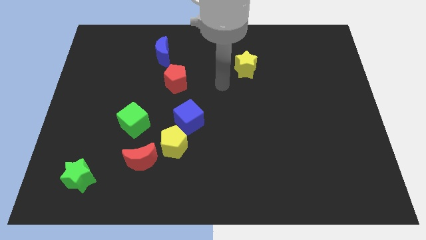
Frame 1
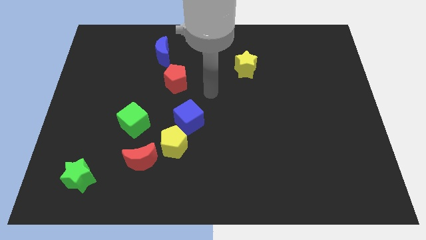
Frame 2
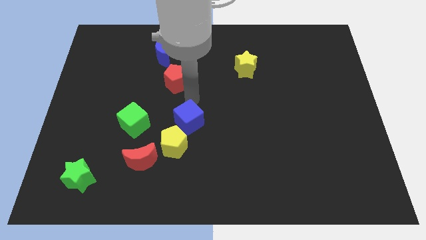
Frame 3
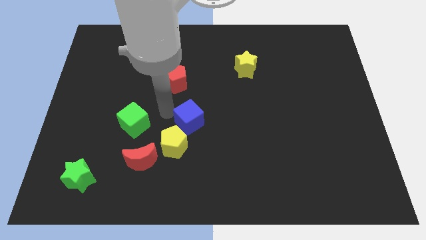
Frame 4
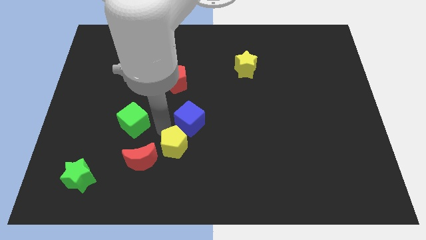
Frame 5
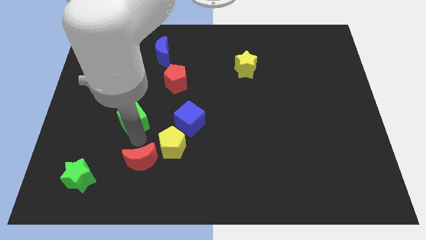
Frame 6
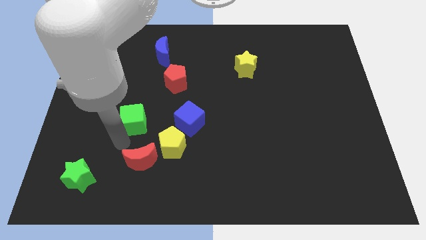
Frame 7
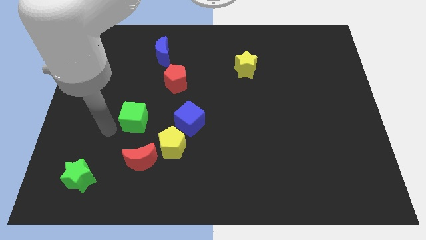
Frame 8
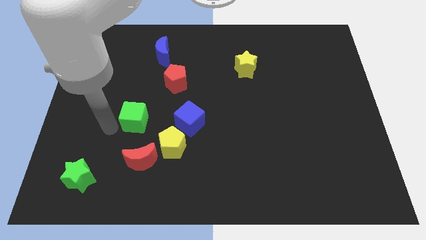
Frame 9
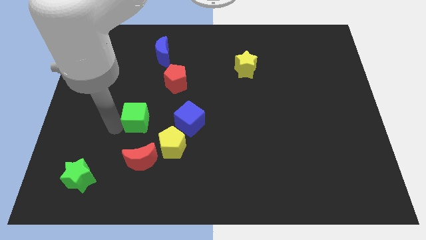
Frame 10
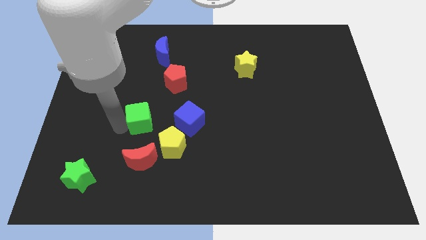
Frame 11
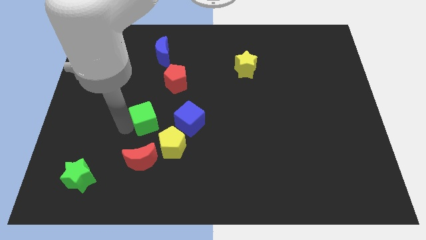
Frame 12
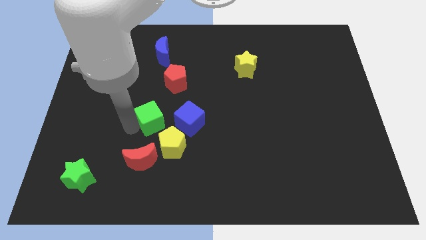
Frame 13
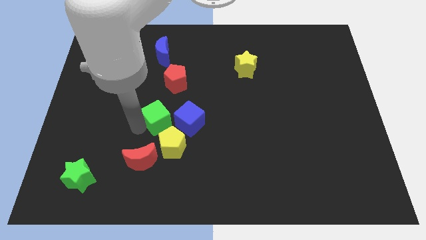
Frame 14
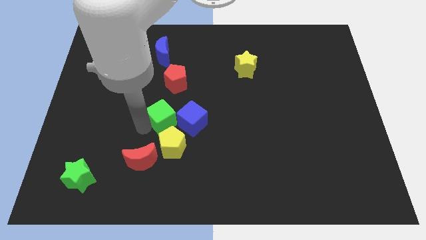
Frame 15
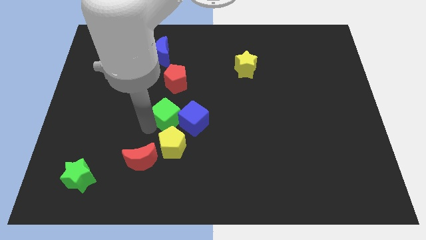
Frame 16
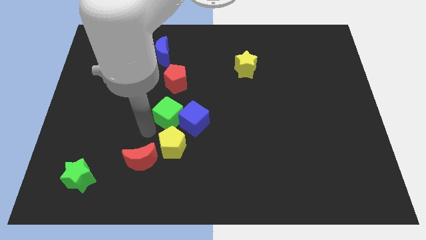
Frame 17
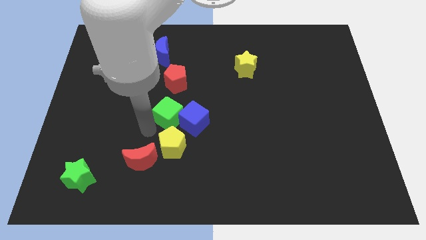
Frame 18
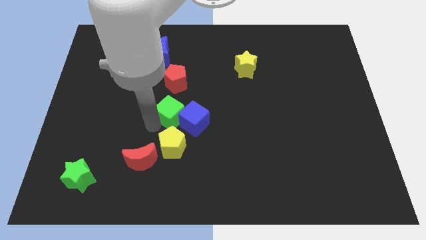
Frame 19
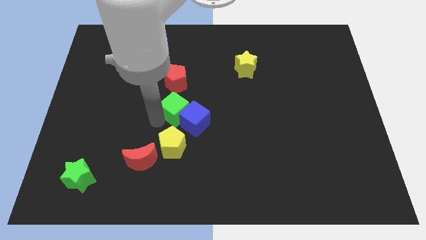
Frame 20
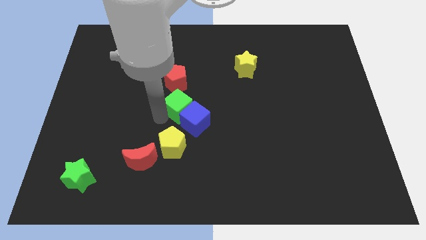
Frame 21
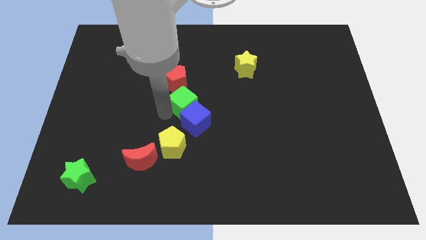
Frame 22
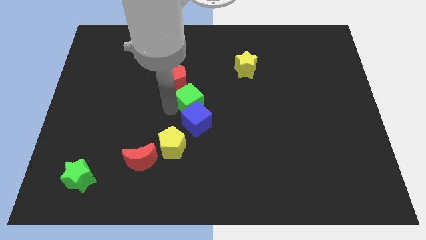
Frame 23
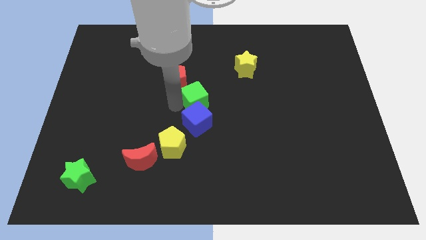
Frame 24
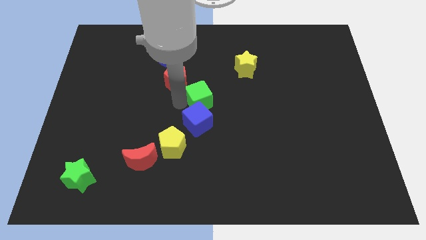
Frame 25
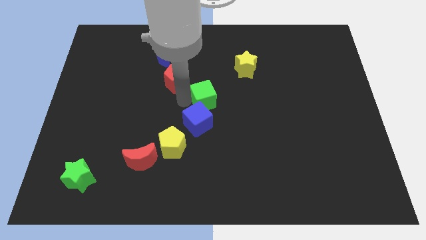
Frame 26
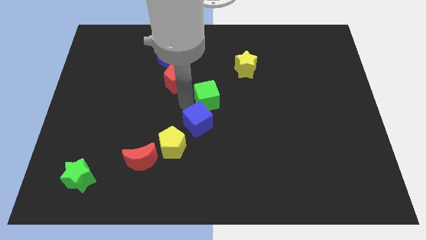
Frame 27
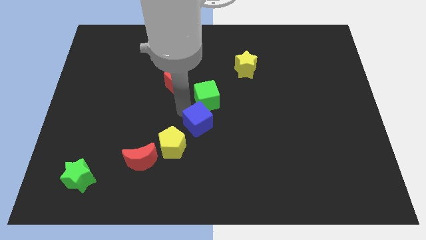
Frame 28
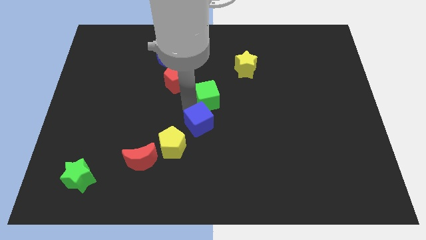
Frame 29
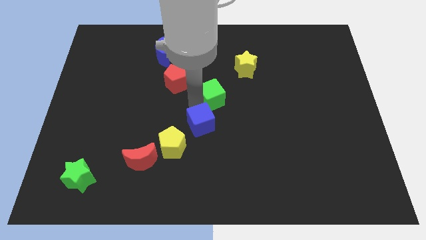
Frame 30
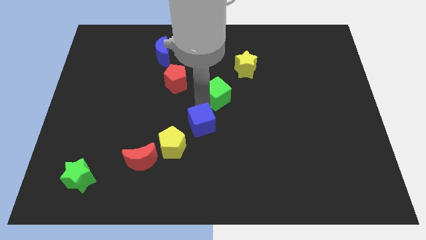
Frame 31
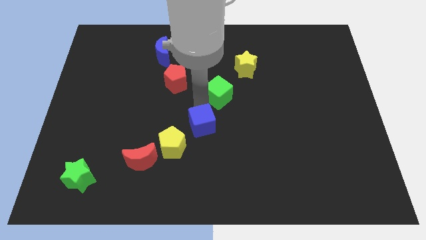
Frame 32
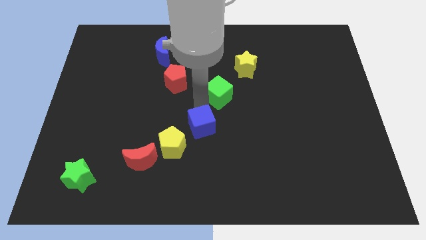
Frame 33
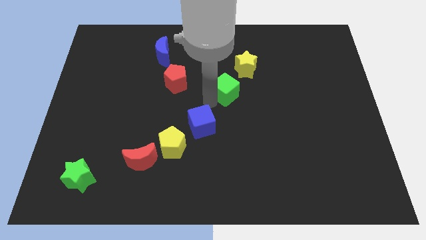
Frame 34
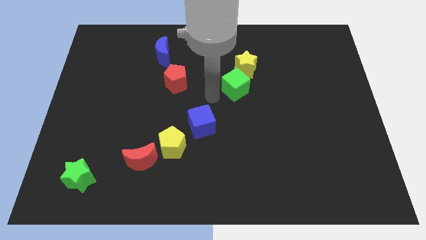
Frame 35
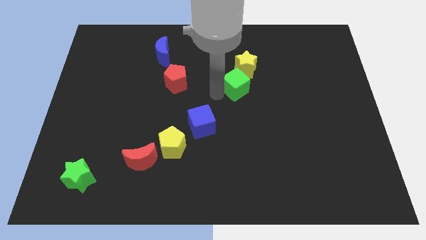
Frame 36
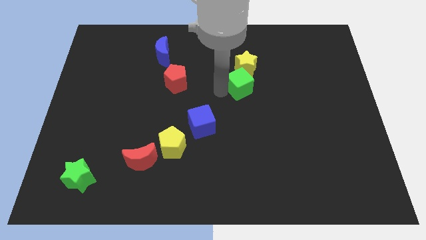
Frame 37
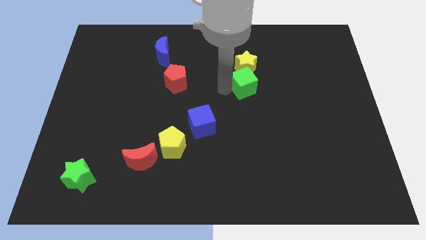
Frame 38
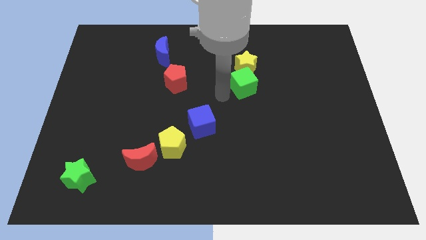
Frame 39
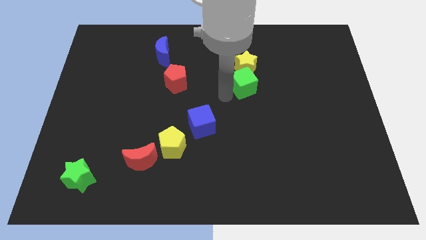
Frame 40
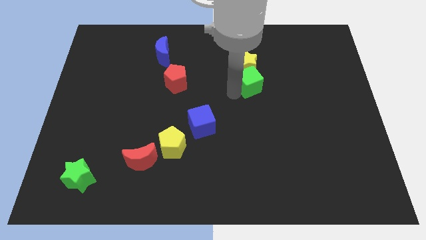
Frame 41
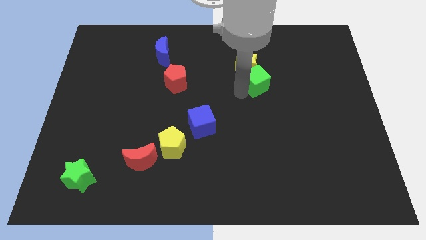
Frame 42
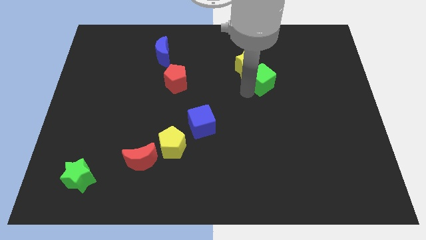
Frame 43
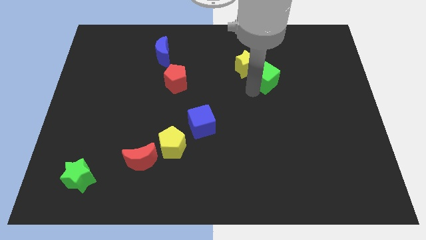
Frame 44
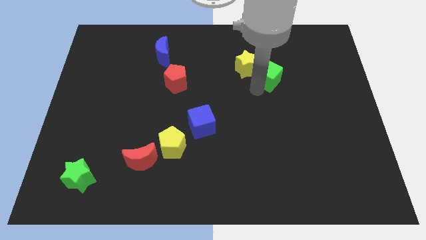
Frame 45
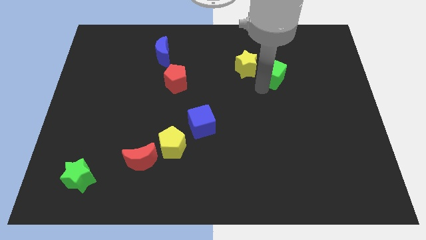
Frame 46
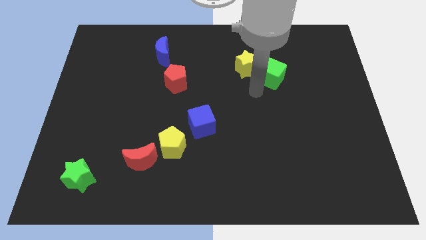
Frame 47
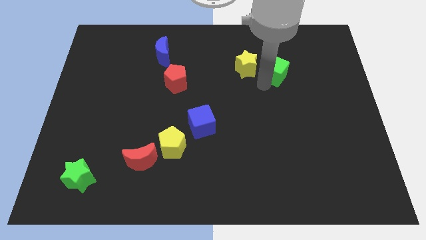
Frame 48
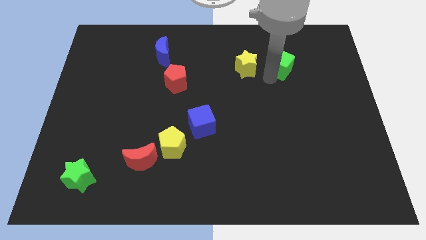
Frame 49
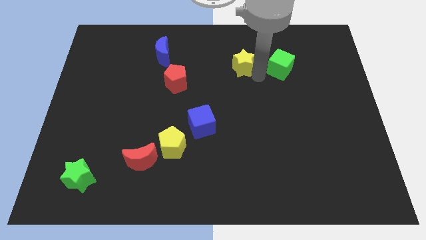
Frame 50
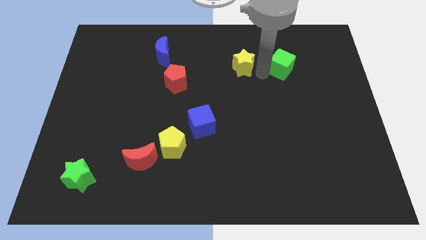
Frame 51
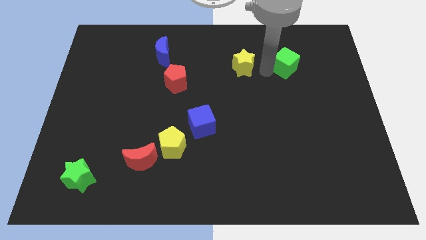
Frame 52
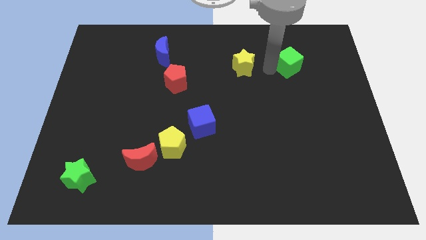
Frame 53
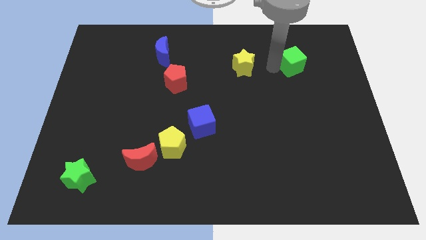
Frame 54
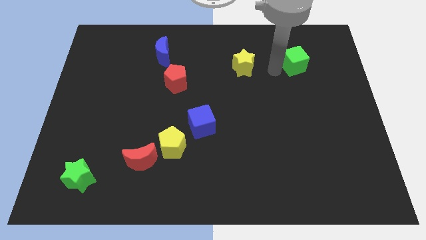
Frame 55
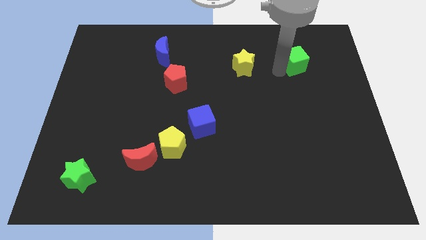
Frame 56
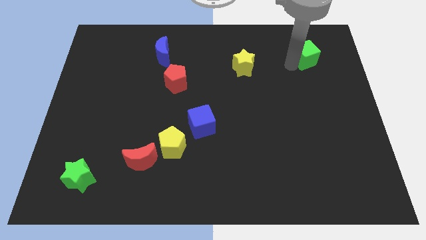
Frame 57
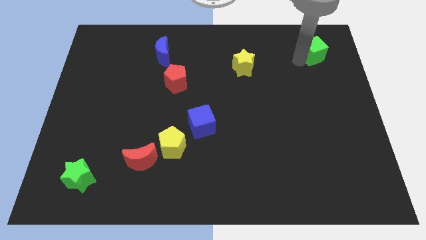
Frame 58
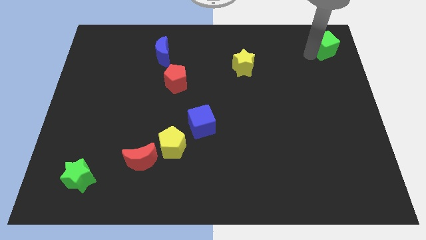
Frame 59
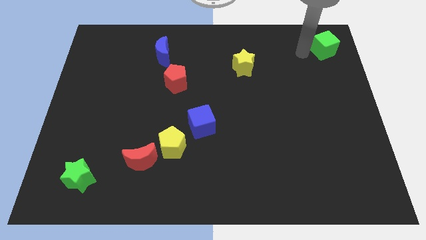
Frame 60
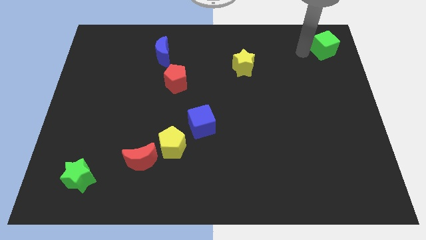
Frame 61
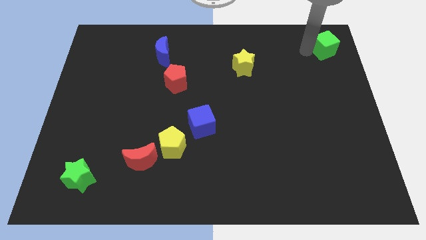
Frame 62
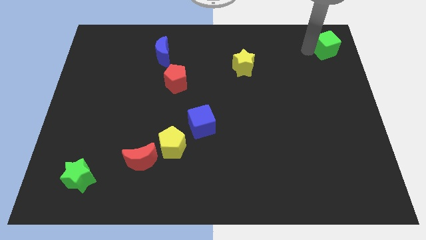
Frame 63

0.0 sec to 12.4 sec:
move the green cube to the top right corner
